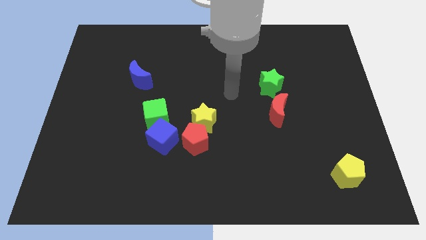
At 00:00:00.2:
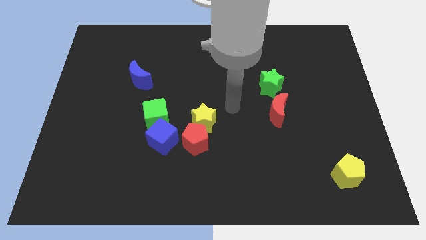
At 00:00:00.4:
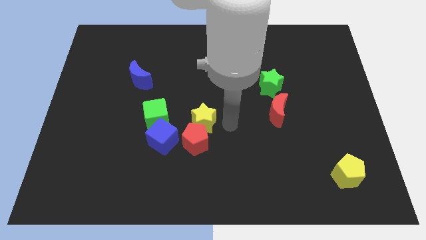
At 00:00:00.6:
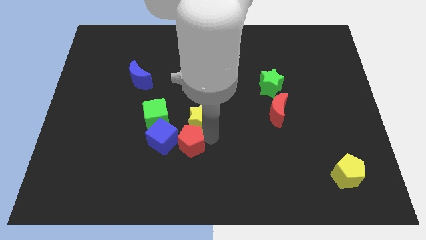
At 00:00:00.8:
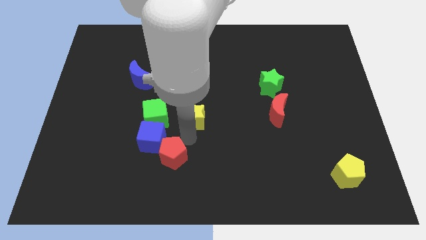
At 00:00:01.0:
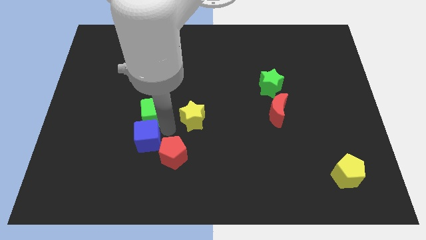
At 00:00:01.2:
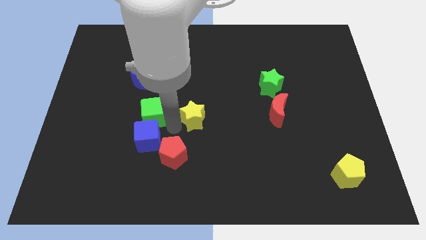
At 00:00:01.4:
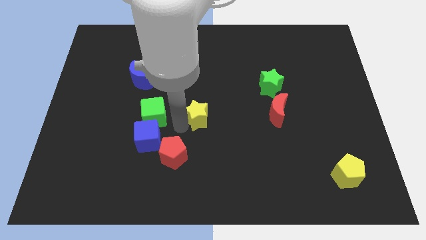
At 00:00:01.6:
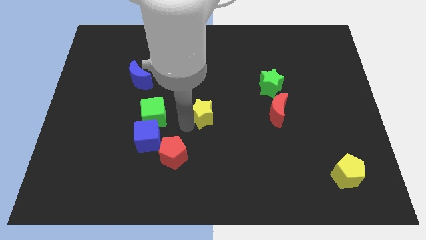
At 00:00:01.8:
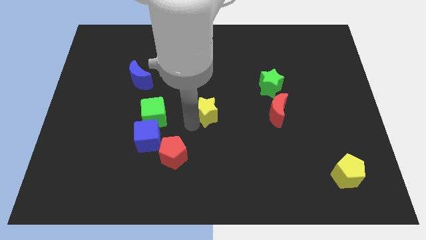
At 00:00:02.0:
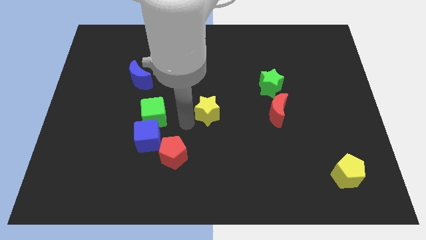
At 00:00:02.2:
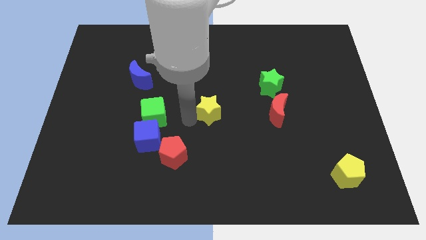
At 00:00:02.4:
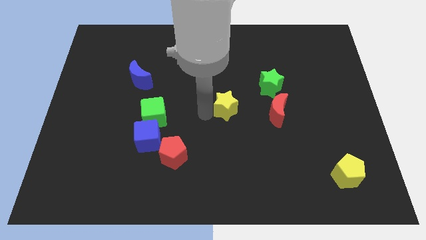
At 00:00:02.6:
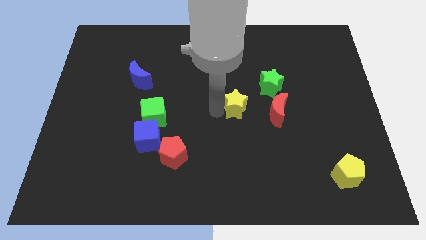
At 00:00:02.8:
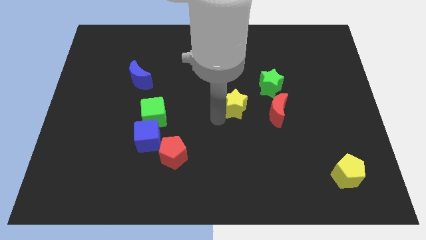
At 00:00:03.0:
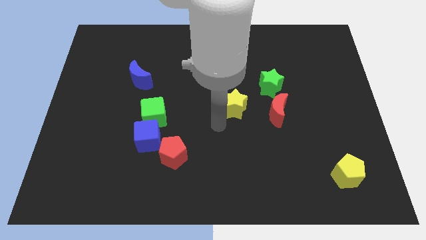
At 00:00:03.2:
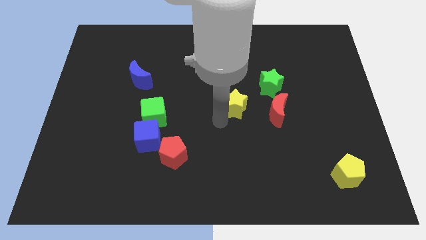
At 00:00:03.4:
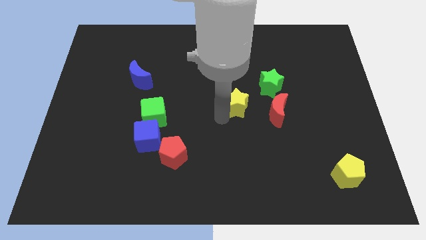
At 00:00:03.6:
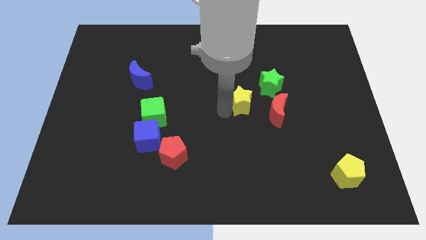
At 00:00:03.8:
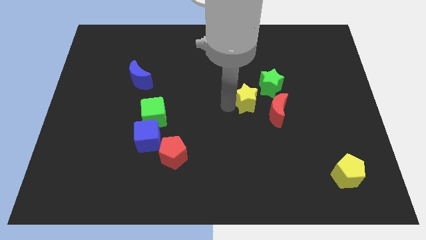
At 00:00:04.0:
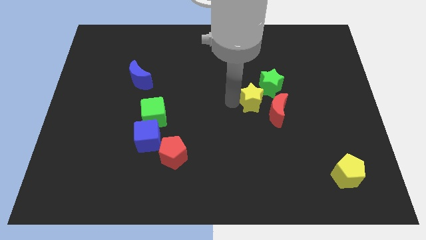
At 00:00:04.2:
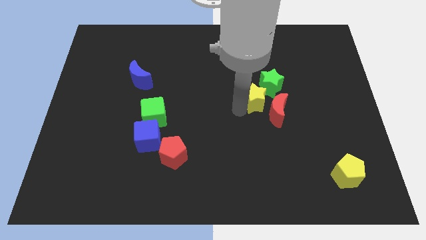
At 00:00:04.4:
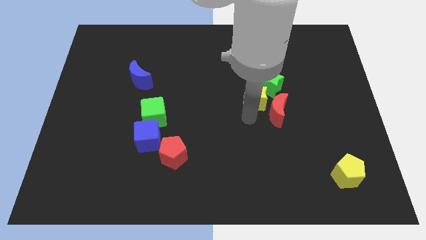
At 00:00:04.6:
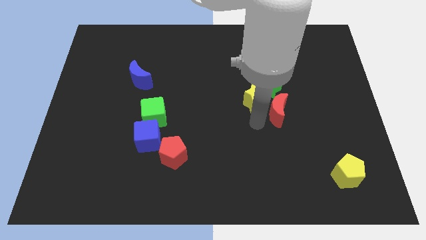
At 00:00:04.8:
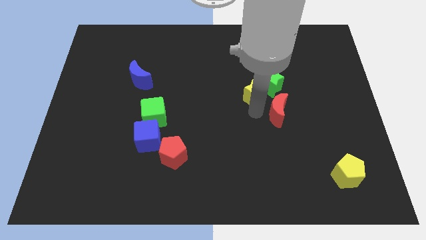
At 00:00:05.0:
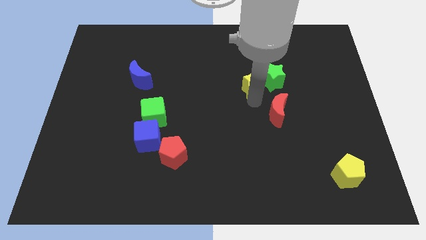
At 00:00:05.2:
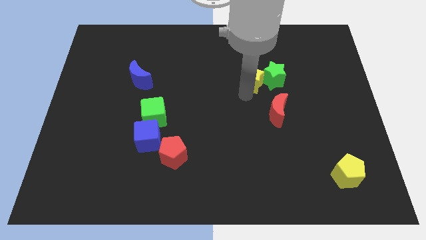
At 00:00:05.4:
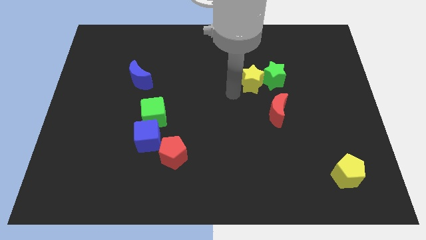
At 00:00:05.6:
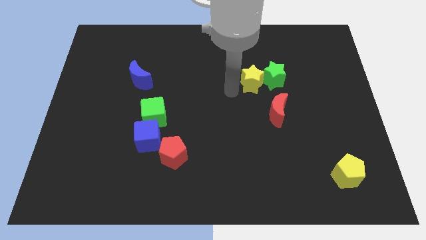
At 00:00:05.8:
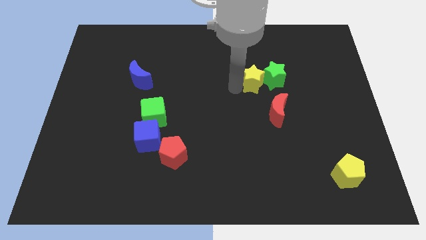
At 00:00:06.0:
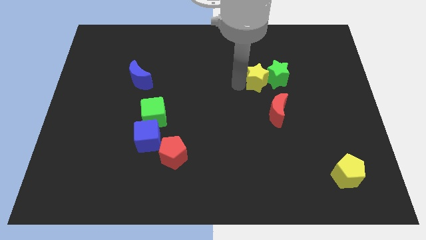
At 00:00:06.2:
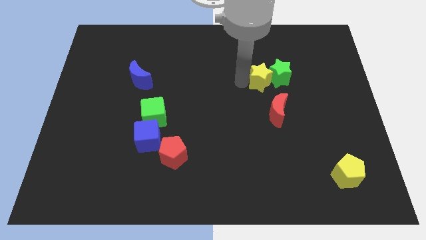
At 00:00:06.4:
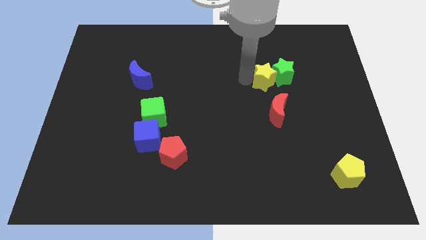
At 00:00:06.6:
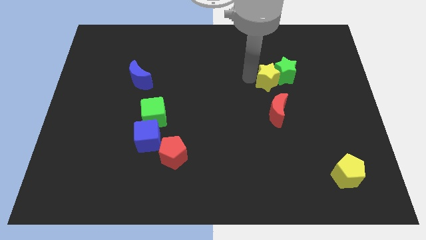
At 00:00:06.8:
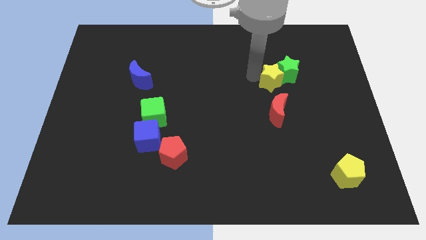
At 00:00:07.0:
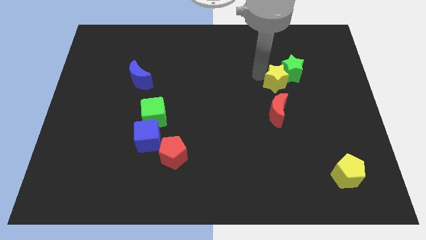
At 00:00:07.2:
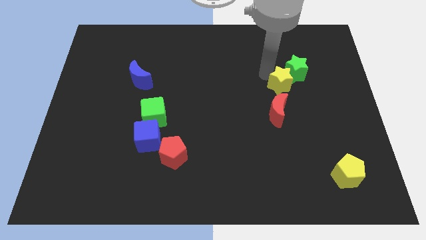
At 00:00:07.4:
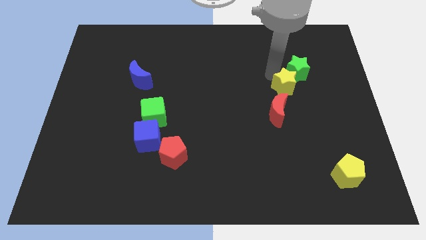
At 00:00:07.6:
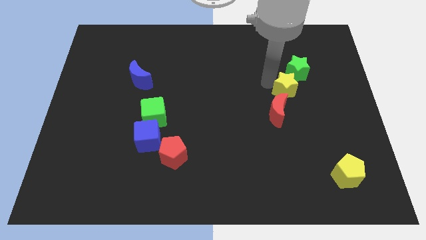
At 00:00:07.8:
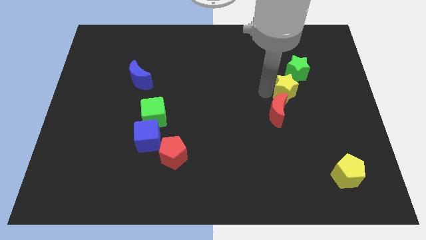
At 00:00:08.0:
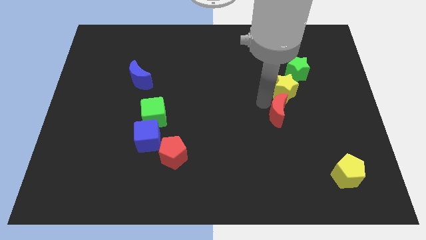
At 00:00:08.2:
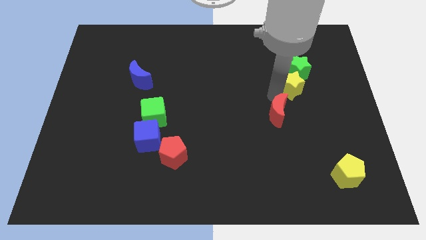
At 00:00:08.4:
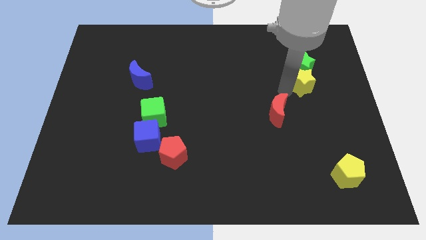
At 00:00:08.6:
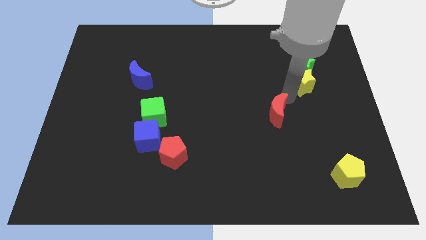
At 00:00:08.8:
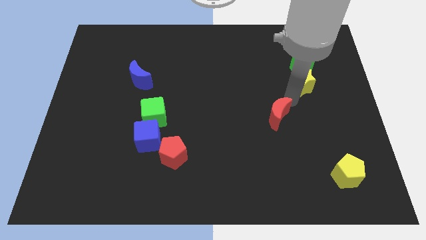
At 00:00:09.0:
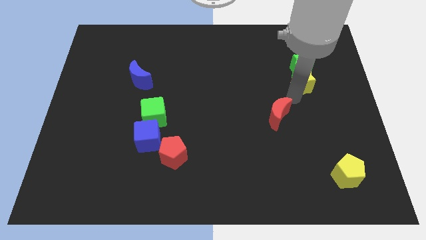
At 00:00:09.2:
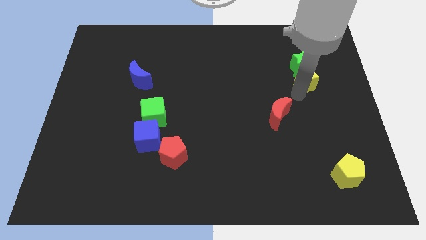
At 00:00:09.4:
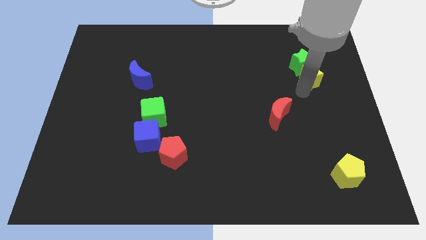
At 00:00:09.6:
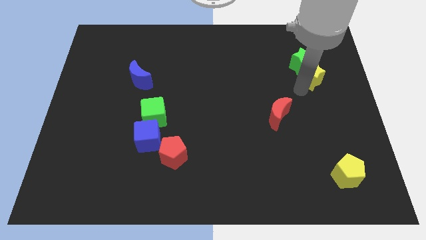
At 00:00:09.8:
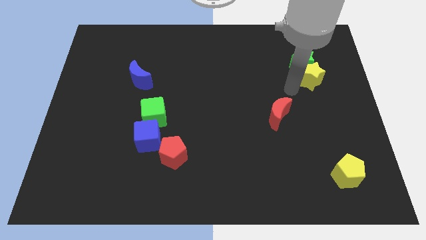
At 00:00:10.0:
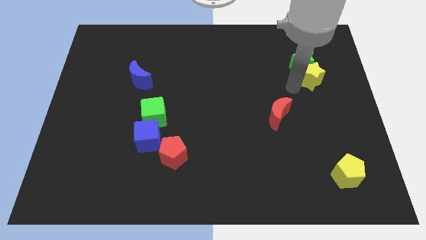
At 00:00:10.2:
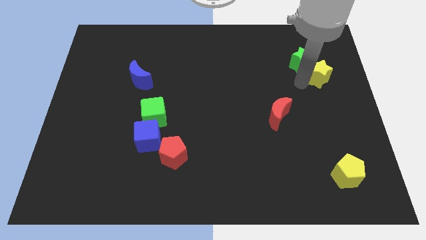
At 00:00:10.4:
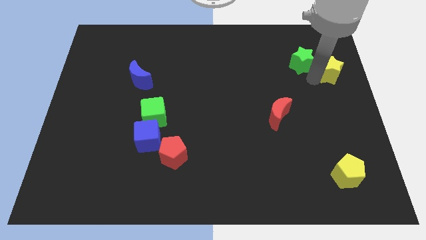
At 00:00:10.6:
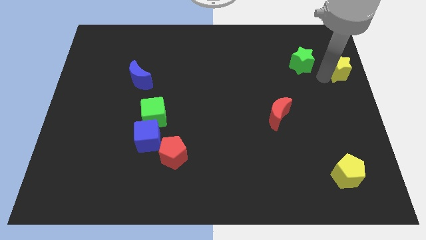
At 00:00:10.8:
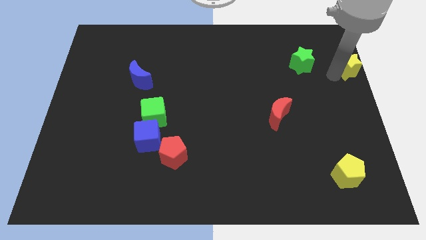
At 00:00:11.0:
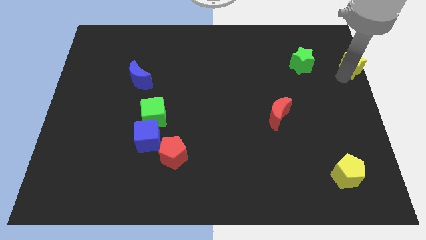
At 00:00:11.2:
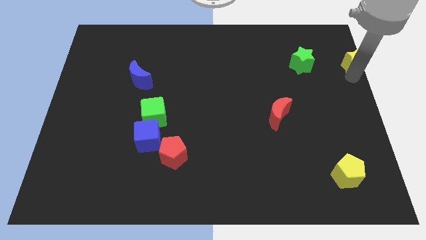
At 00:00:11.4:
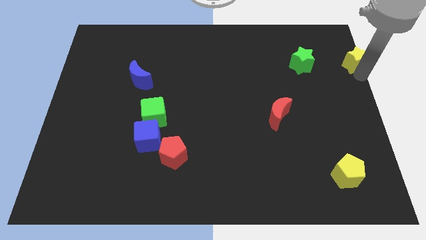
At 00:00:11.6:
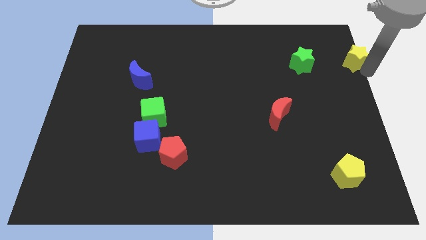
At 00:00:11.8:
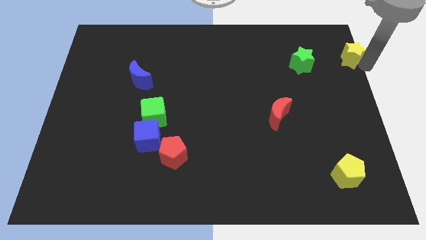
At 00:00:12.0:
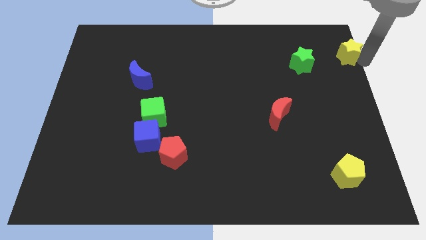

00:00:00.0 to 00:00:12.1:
push the yellow star to the top right of the board

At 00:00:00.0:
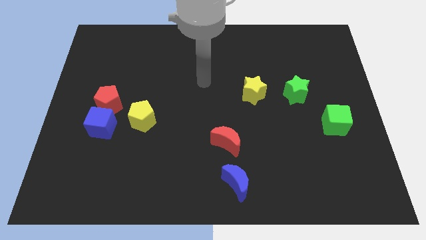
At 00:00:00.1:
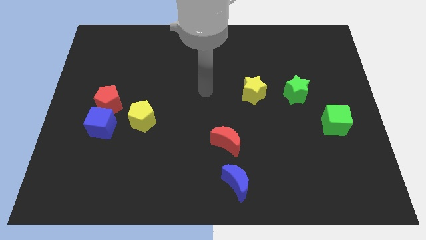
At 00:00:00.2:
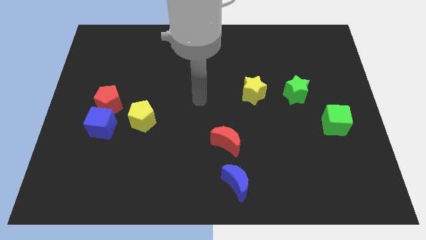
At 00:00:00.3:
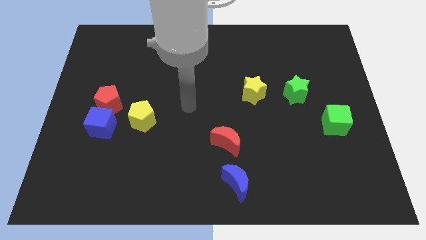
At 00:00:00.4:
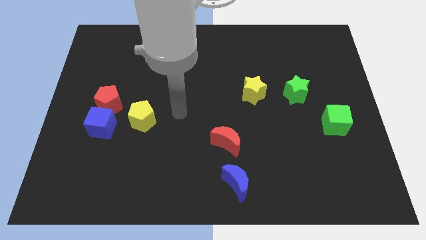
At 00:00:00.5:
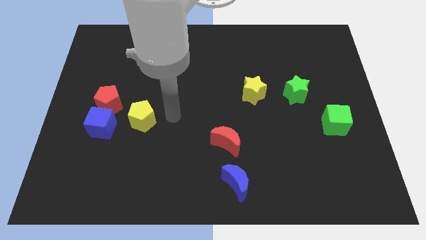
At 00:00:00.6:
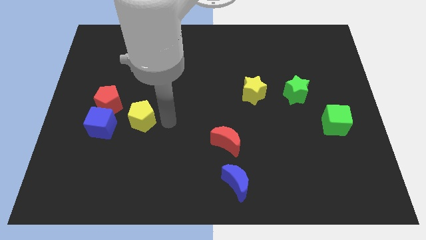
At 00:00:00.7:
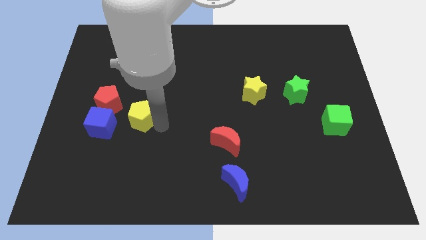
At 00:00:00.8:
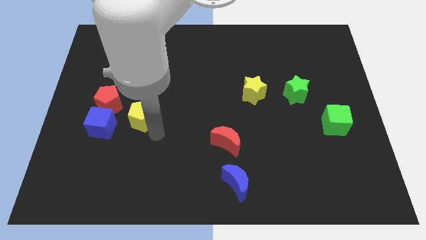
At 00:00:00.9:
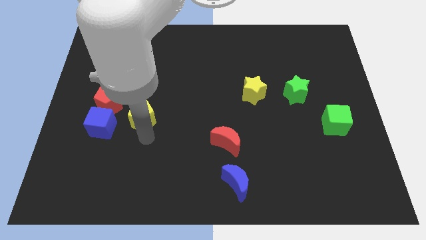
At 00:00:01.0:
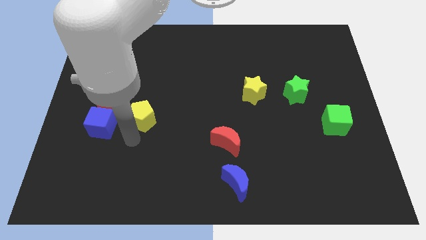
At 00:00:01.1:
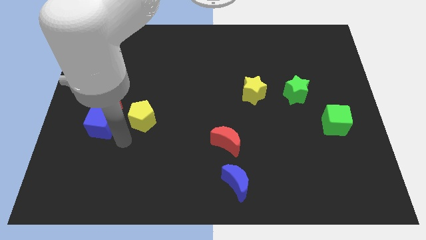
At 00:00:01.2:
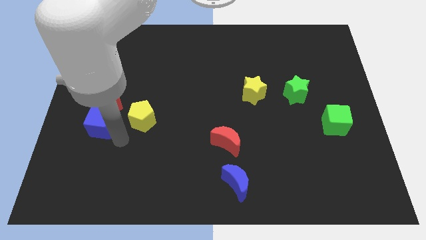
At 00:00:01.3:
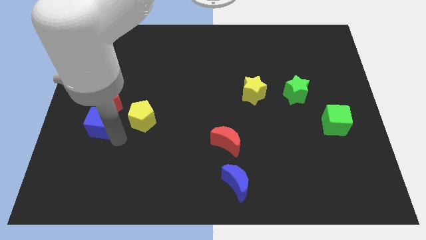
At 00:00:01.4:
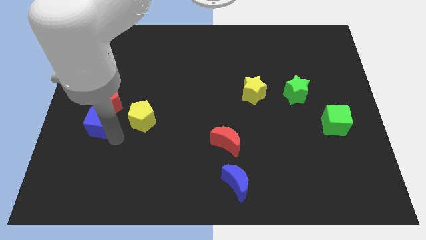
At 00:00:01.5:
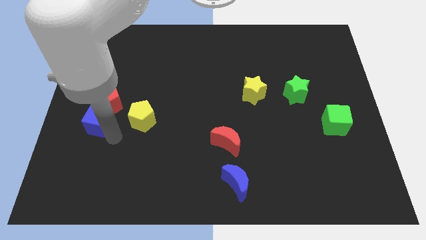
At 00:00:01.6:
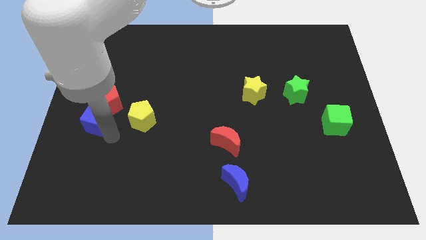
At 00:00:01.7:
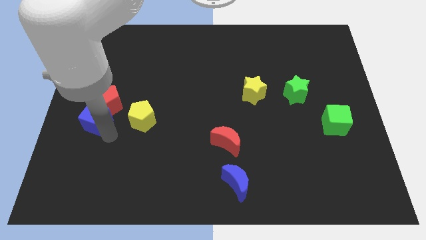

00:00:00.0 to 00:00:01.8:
slide the blue cube to the left side of the board
